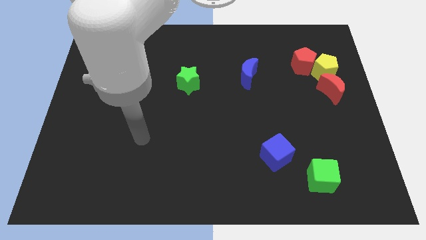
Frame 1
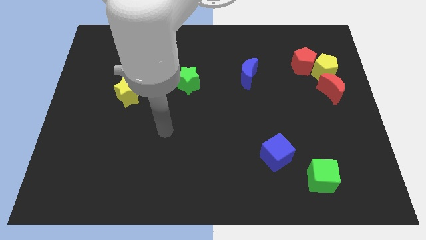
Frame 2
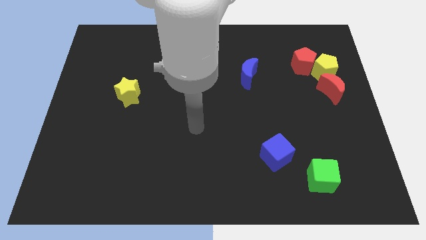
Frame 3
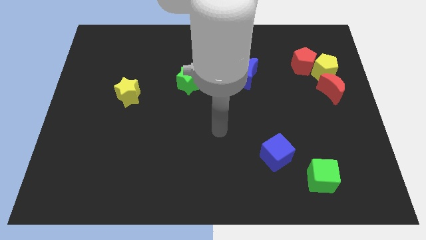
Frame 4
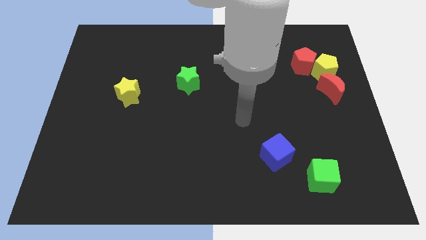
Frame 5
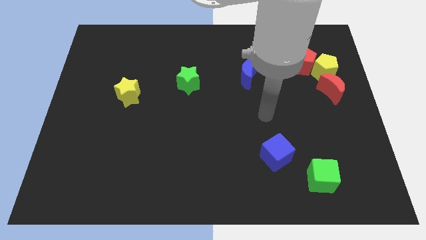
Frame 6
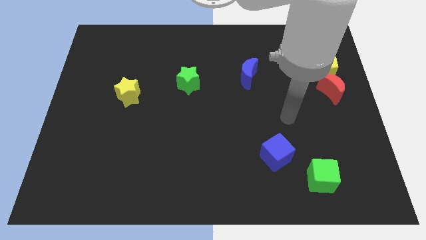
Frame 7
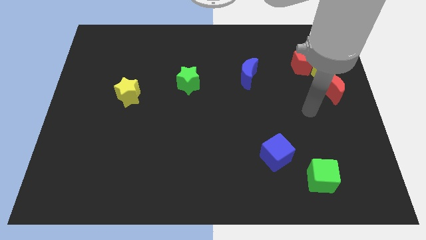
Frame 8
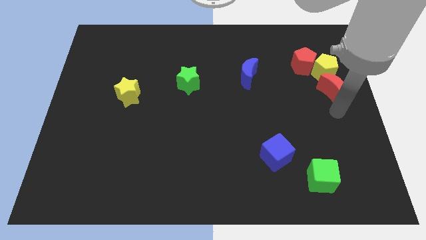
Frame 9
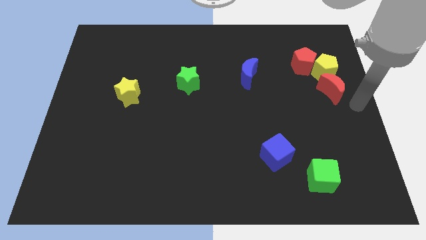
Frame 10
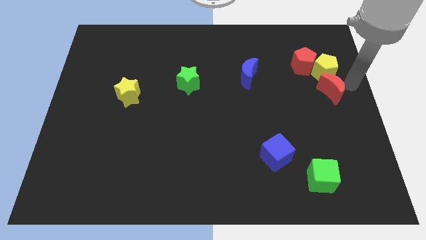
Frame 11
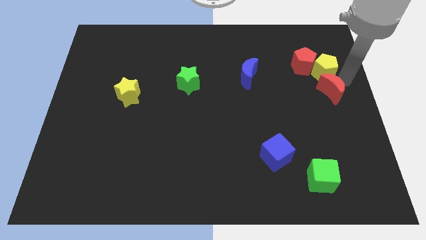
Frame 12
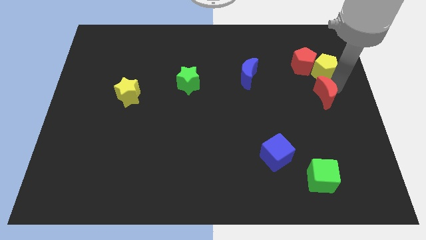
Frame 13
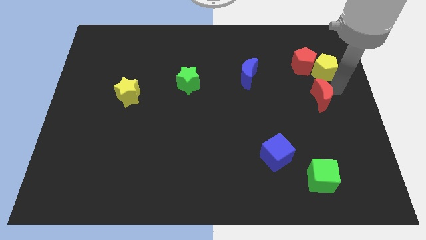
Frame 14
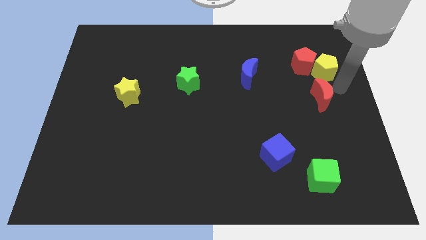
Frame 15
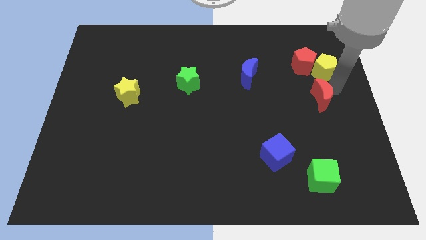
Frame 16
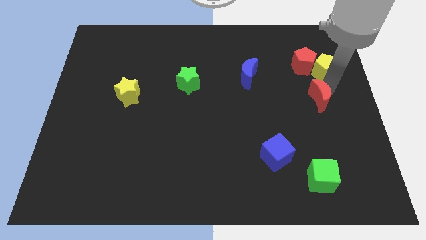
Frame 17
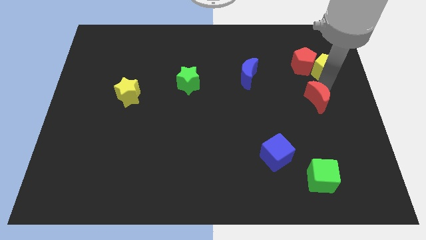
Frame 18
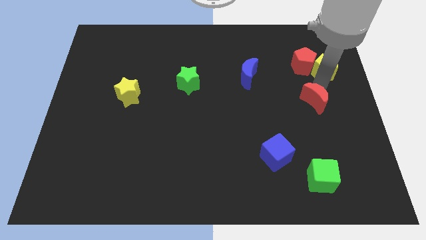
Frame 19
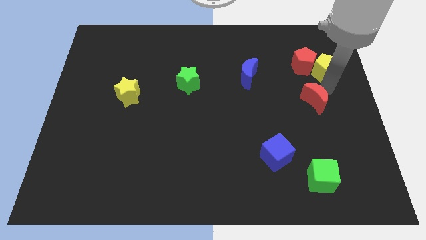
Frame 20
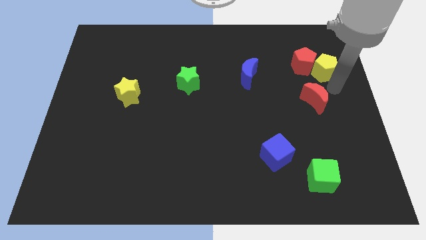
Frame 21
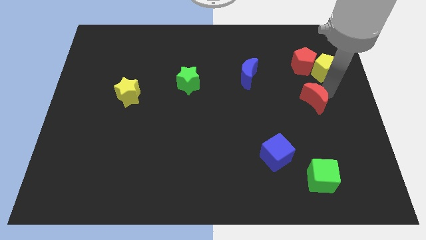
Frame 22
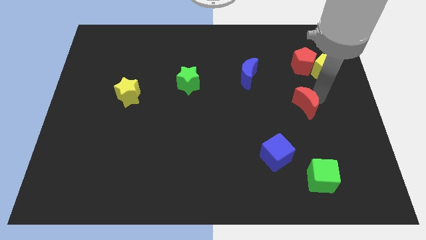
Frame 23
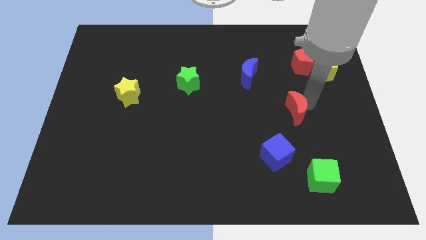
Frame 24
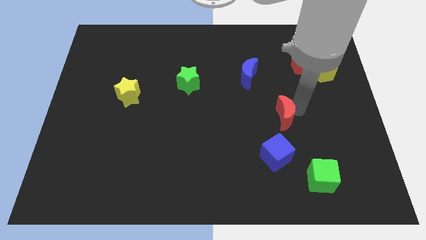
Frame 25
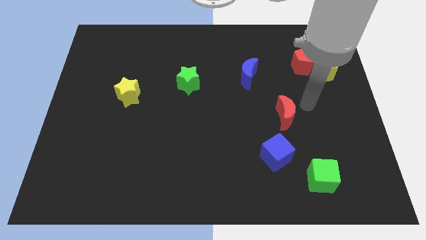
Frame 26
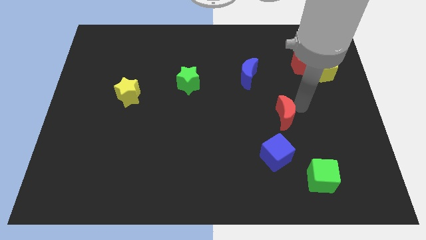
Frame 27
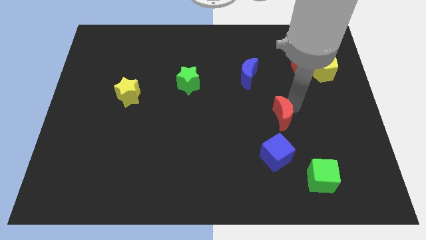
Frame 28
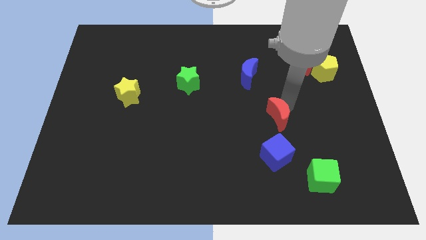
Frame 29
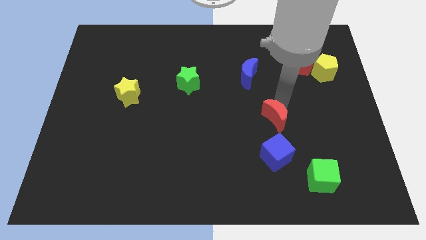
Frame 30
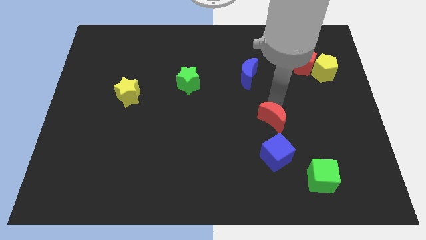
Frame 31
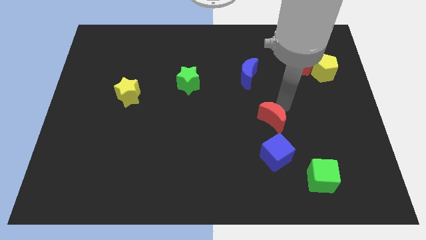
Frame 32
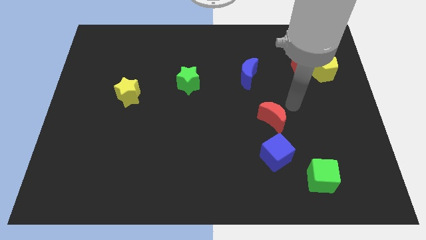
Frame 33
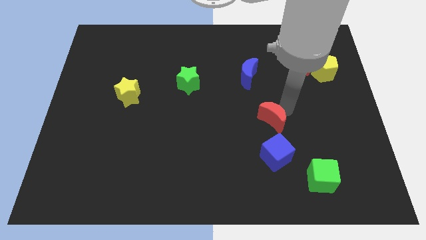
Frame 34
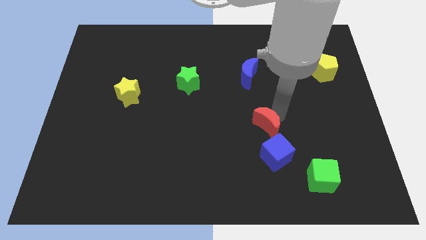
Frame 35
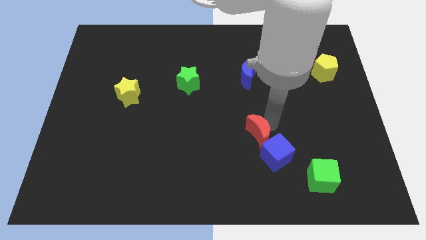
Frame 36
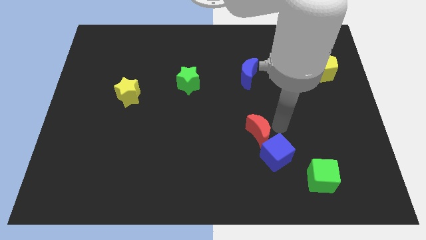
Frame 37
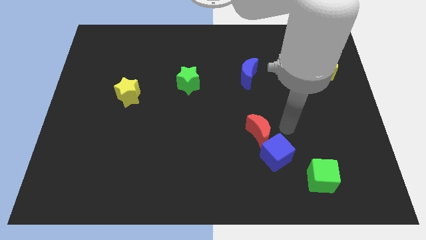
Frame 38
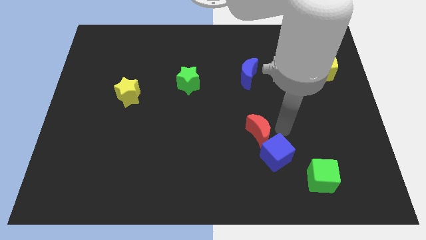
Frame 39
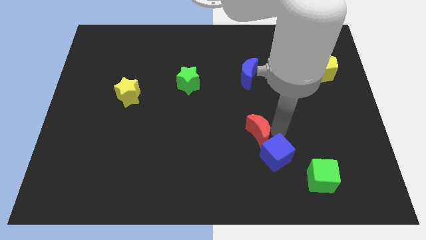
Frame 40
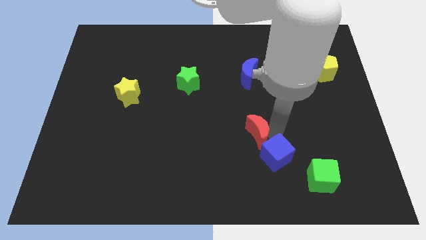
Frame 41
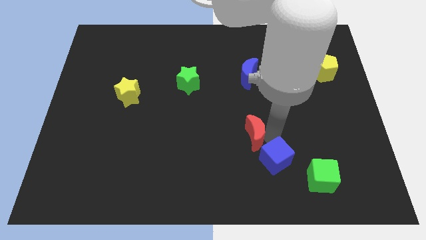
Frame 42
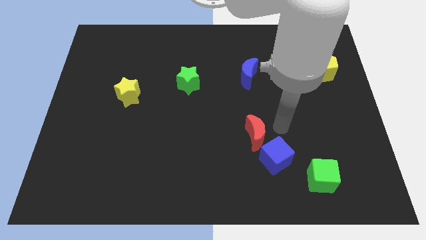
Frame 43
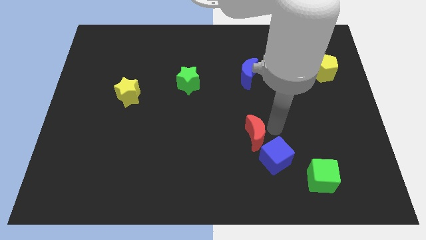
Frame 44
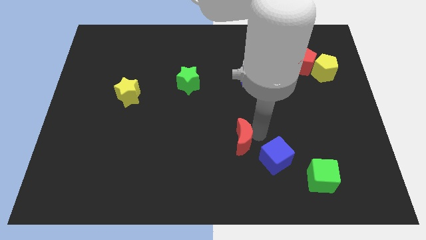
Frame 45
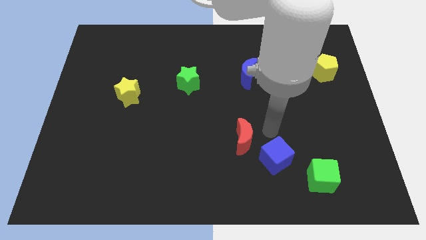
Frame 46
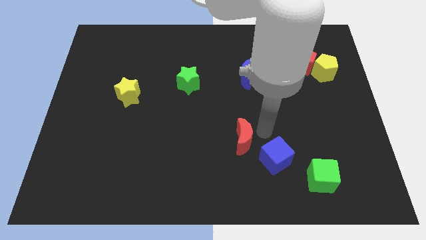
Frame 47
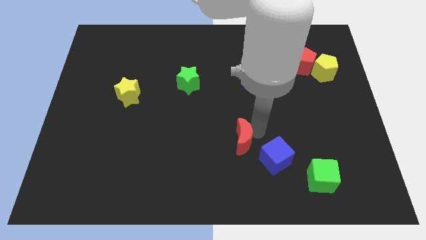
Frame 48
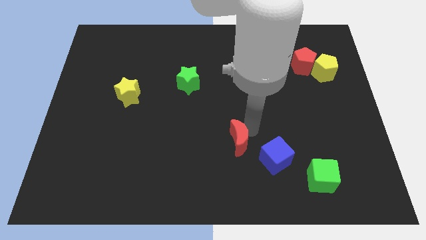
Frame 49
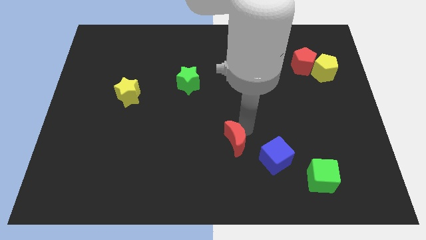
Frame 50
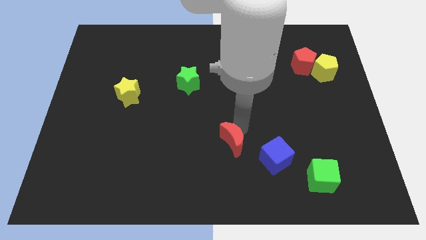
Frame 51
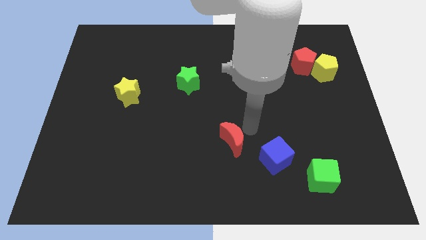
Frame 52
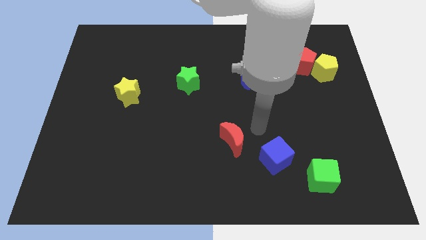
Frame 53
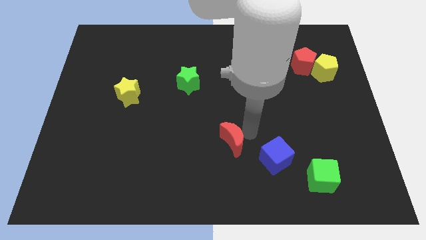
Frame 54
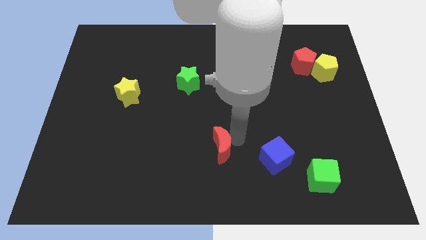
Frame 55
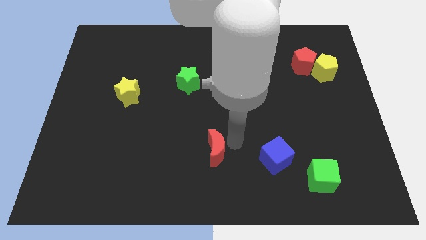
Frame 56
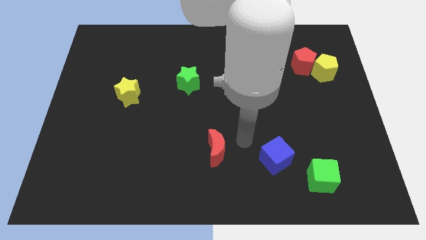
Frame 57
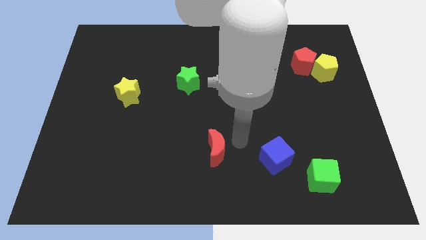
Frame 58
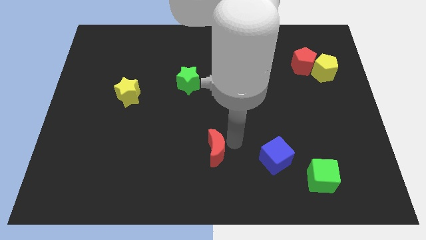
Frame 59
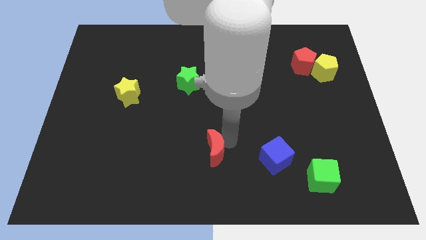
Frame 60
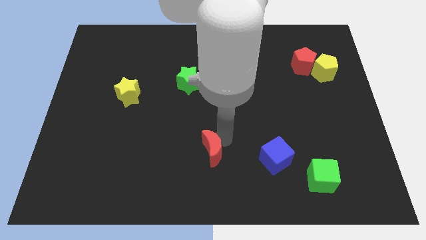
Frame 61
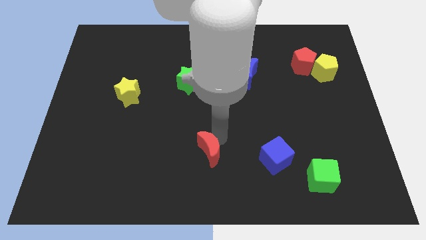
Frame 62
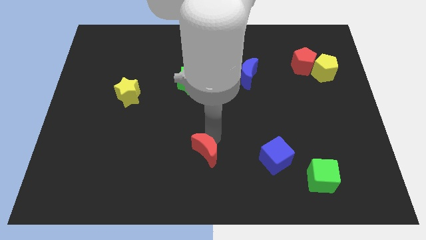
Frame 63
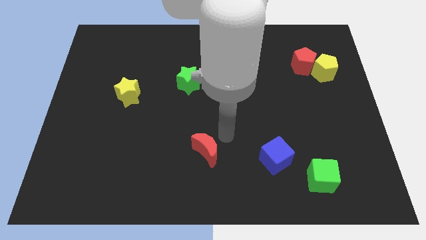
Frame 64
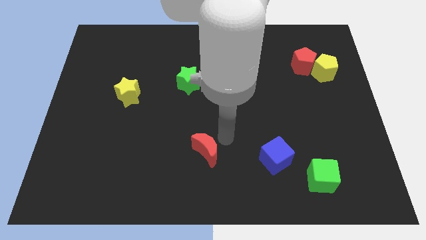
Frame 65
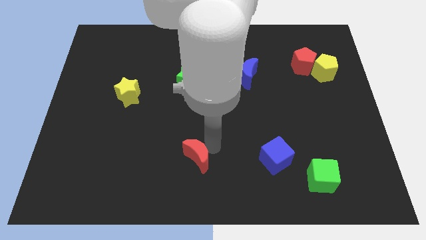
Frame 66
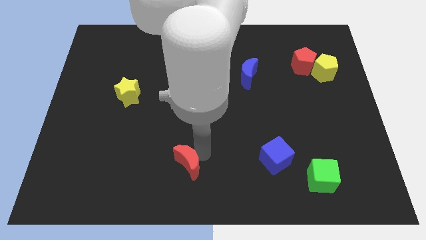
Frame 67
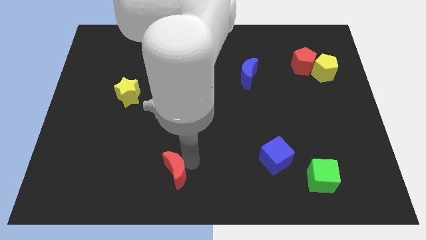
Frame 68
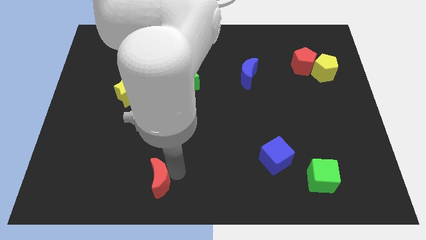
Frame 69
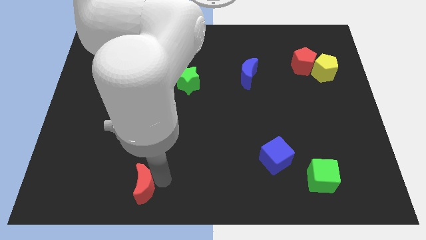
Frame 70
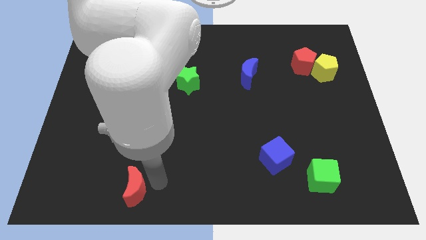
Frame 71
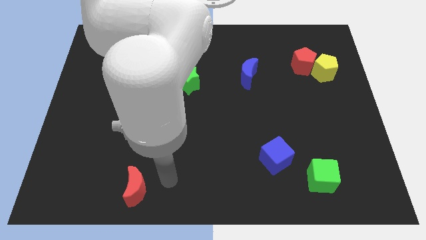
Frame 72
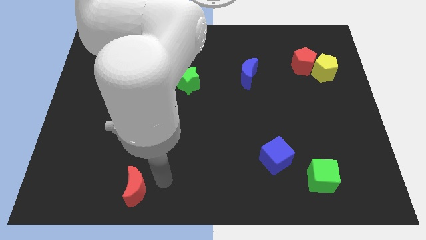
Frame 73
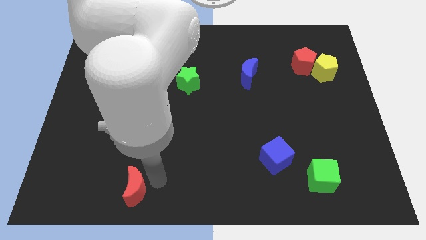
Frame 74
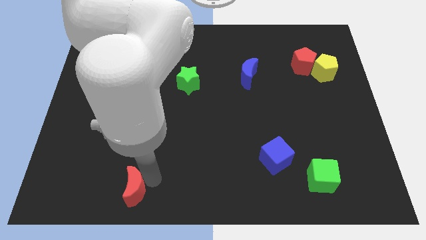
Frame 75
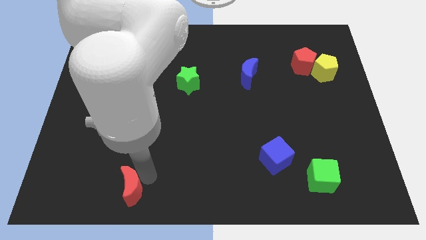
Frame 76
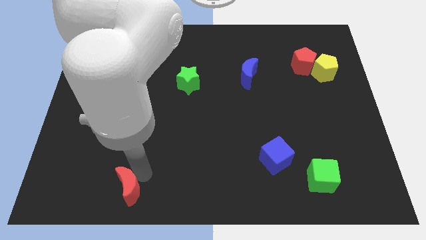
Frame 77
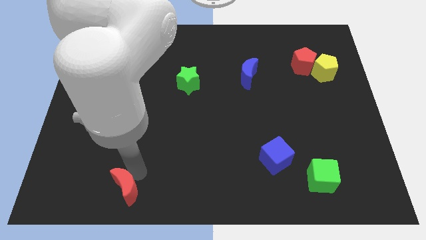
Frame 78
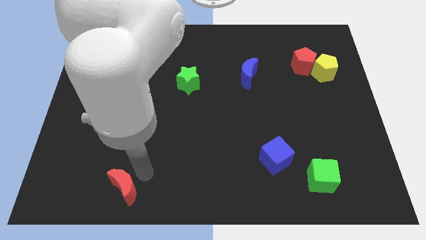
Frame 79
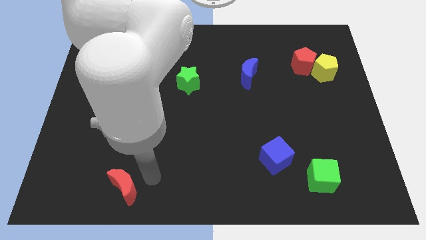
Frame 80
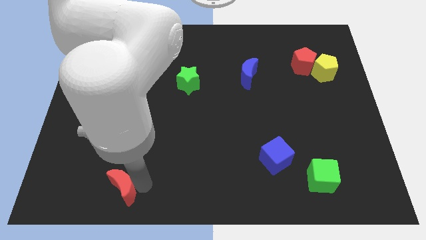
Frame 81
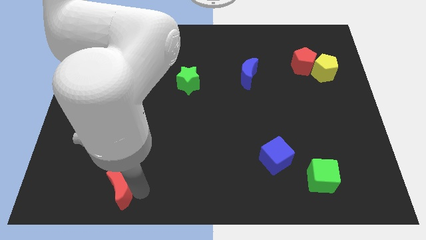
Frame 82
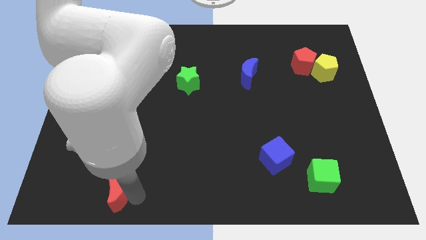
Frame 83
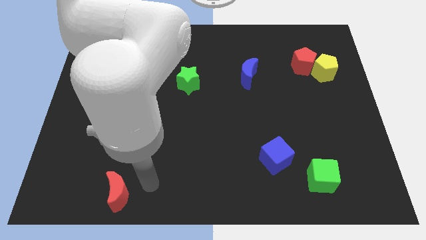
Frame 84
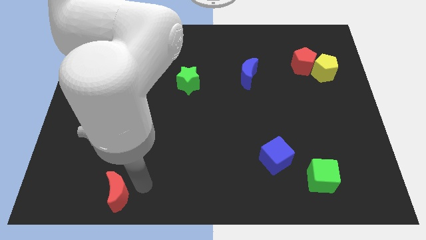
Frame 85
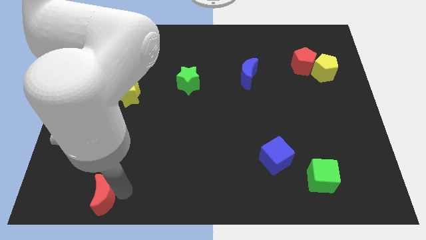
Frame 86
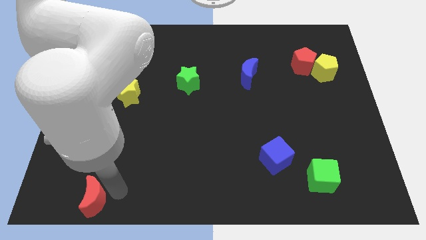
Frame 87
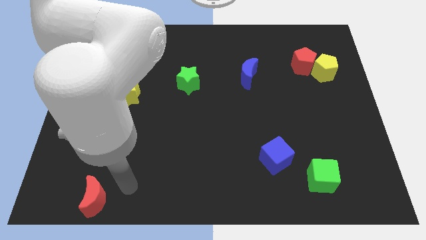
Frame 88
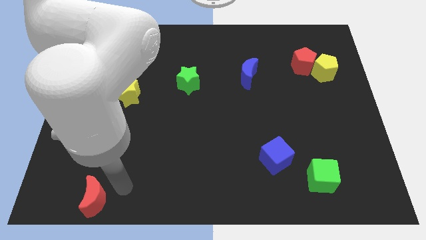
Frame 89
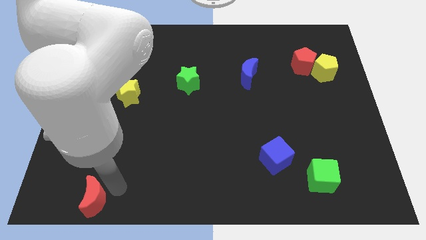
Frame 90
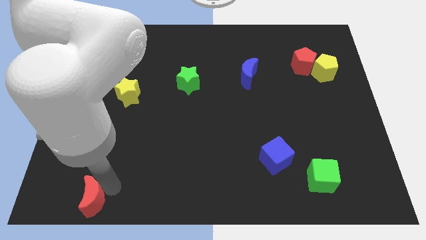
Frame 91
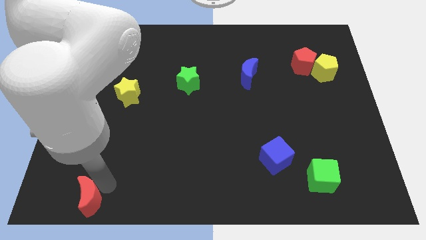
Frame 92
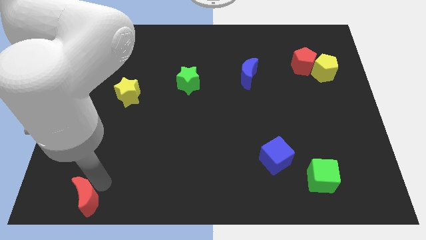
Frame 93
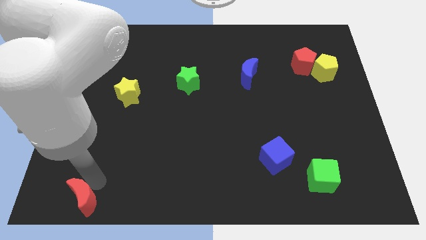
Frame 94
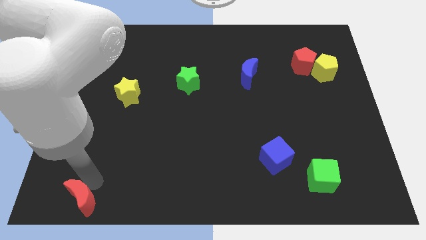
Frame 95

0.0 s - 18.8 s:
move the red moon to the bottom left of the board
